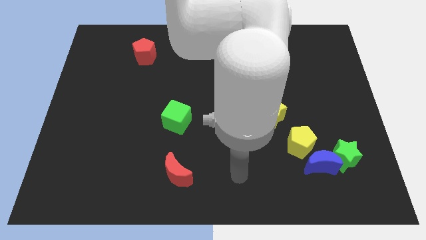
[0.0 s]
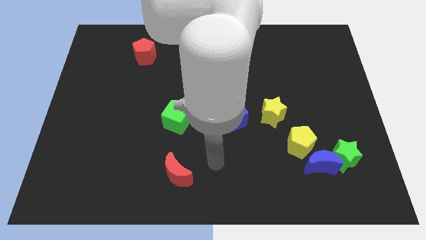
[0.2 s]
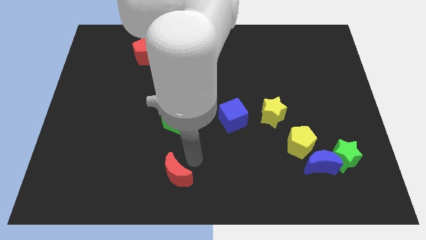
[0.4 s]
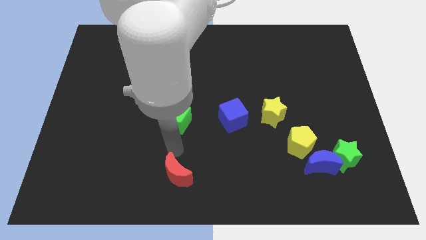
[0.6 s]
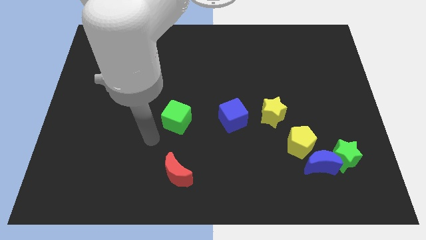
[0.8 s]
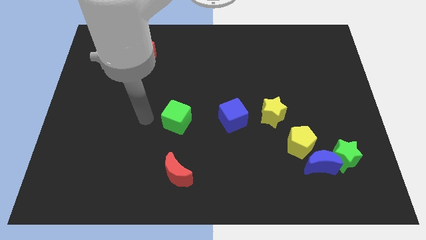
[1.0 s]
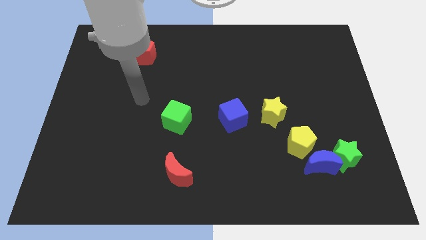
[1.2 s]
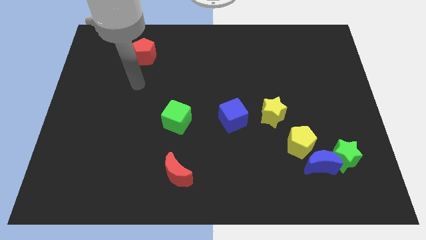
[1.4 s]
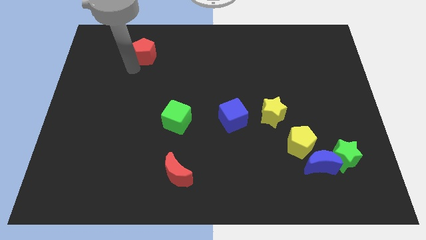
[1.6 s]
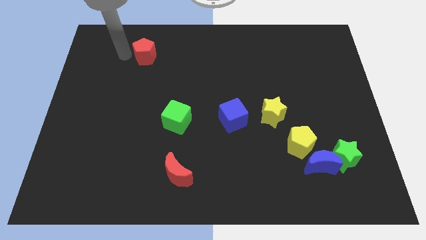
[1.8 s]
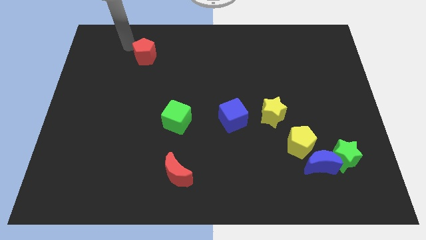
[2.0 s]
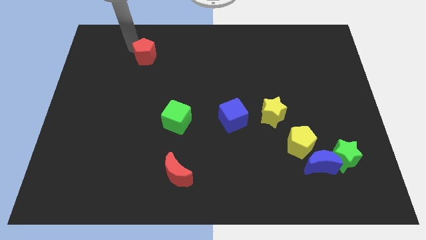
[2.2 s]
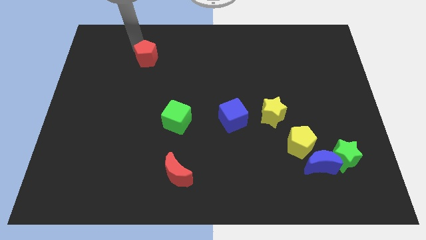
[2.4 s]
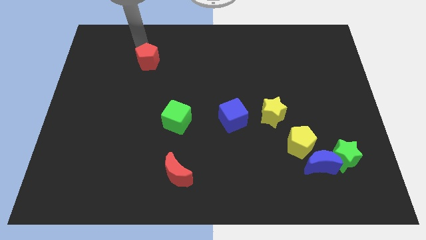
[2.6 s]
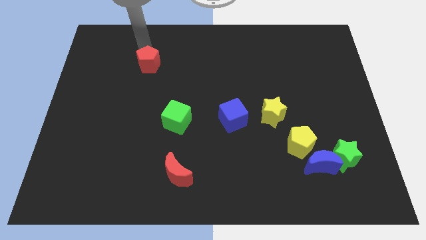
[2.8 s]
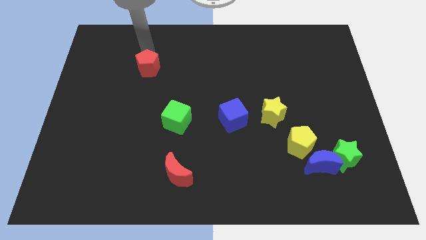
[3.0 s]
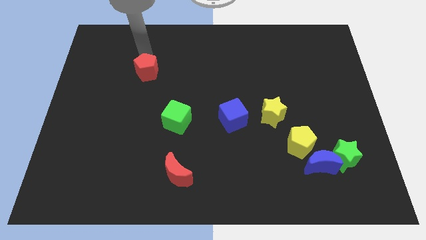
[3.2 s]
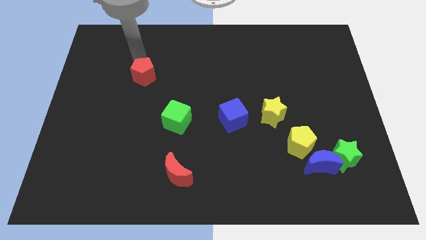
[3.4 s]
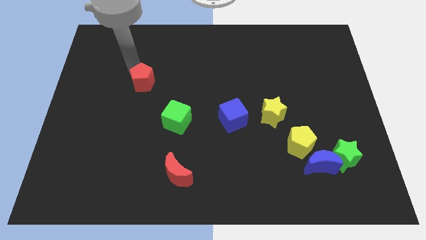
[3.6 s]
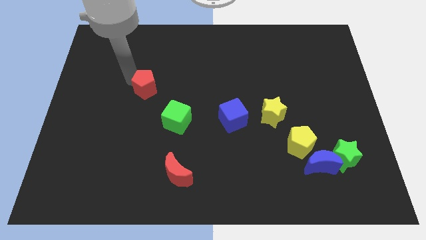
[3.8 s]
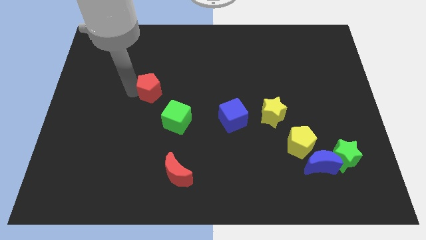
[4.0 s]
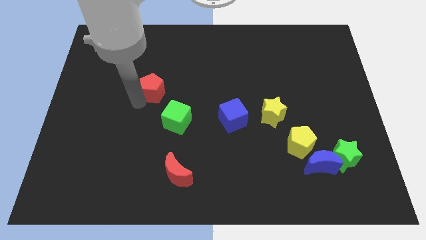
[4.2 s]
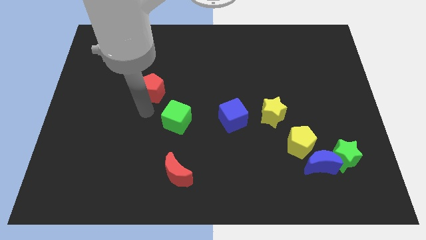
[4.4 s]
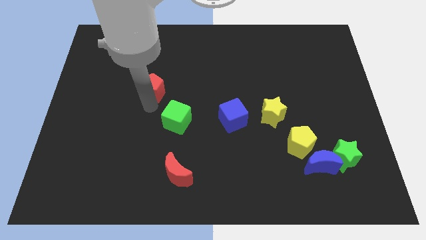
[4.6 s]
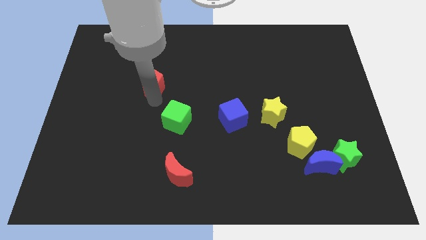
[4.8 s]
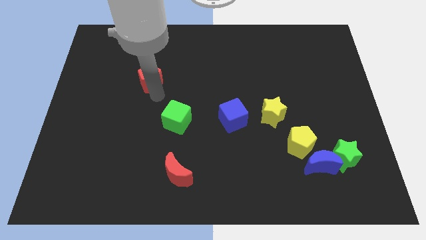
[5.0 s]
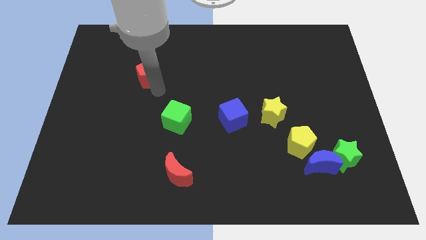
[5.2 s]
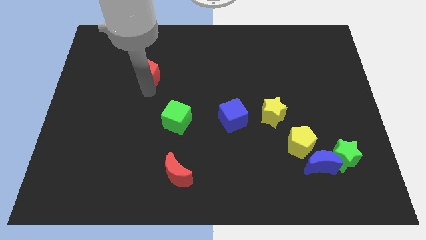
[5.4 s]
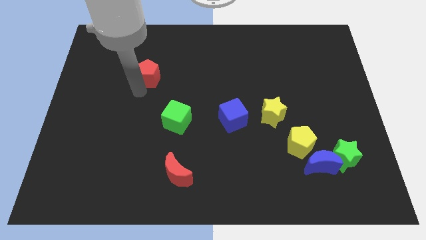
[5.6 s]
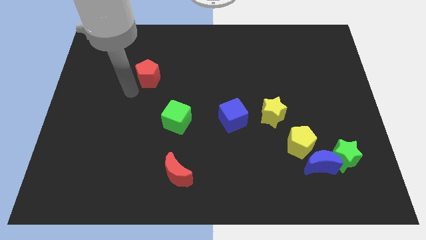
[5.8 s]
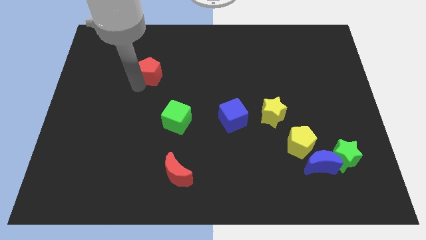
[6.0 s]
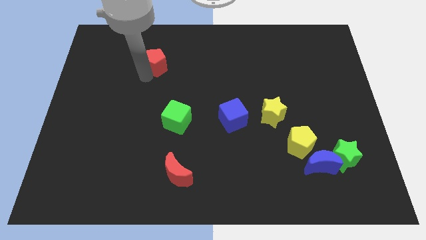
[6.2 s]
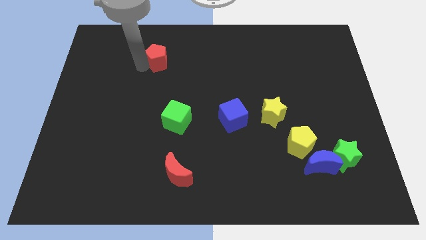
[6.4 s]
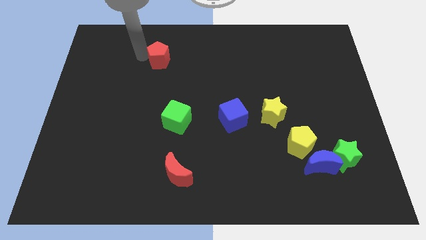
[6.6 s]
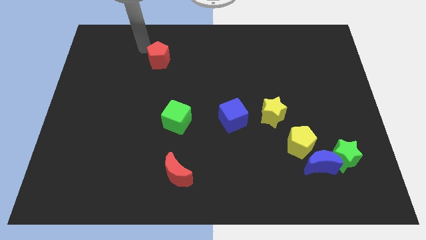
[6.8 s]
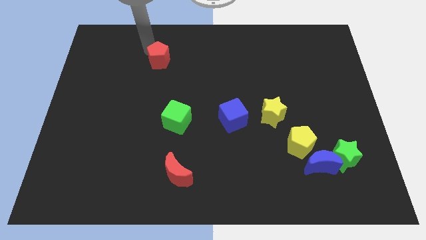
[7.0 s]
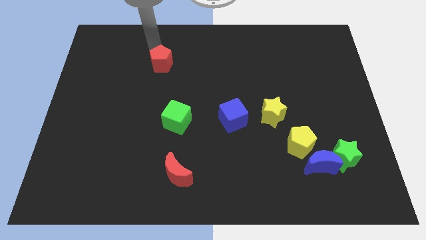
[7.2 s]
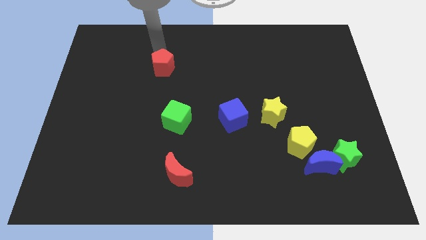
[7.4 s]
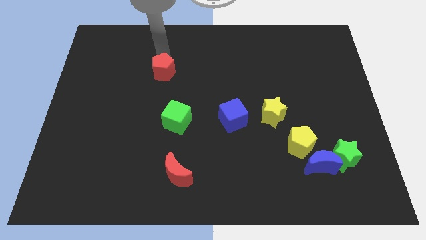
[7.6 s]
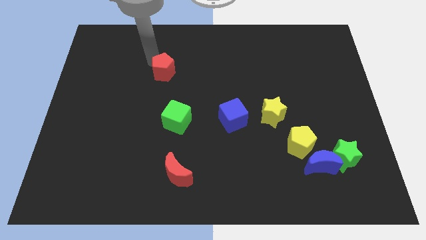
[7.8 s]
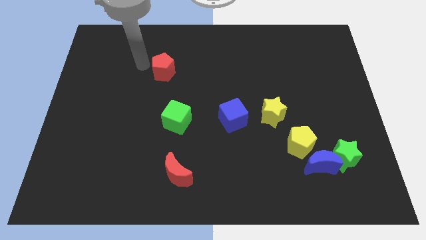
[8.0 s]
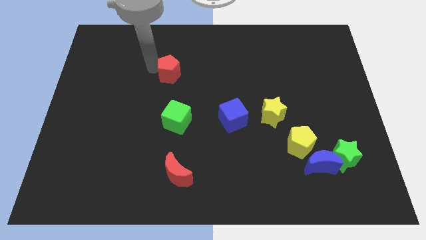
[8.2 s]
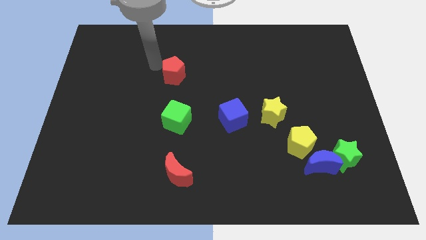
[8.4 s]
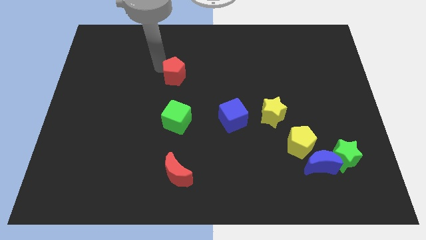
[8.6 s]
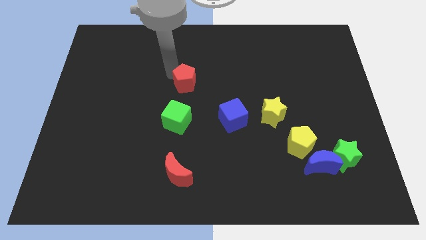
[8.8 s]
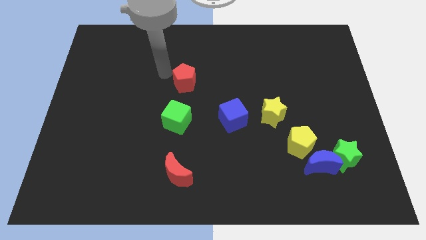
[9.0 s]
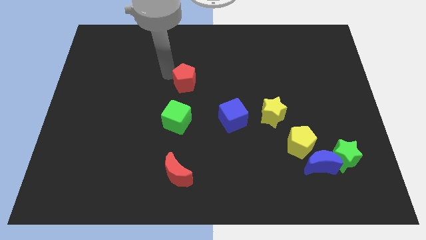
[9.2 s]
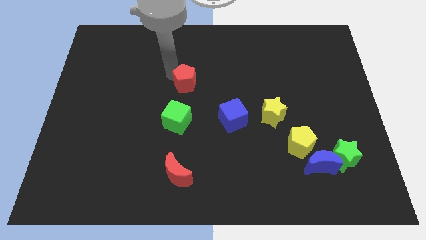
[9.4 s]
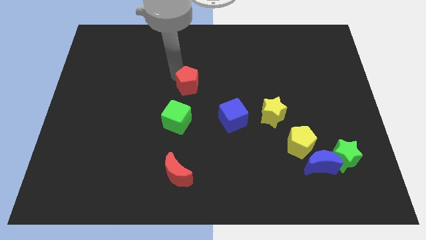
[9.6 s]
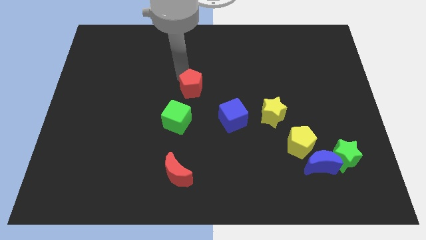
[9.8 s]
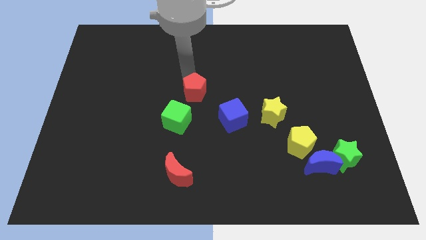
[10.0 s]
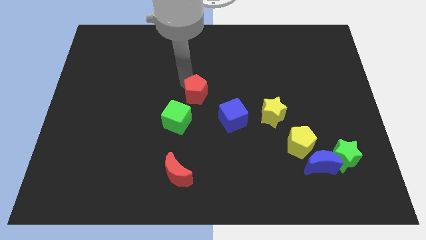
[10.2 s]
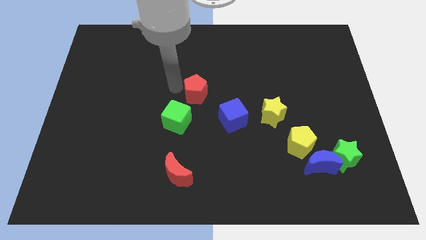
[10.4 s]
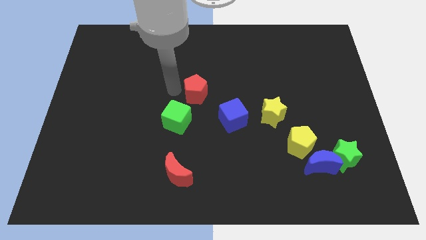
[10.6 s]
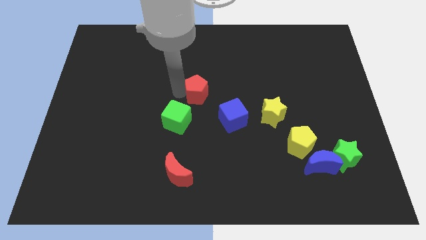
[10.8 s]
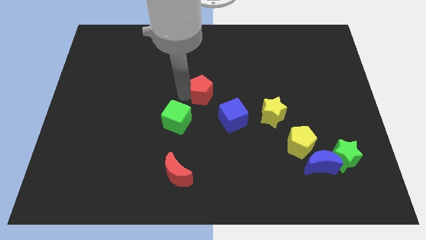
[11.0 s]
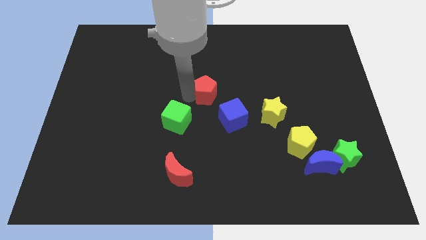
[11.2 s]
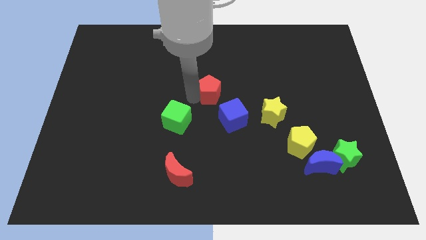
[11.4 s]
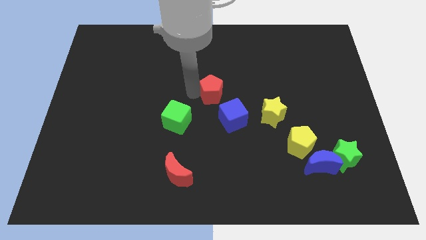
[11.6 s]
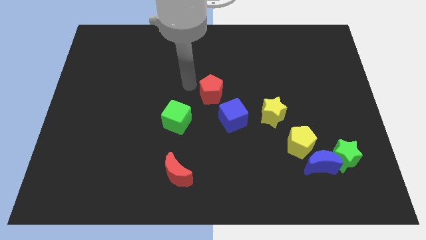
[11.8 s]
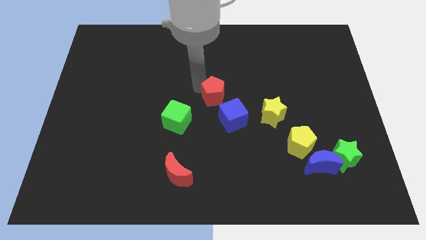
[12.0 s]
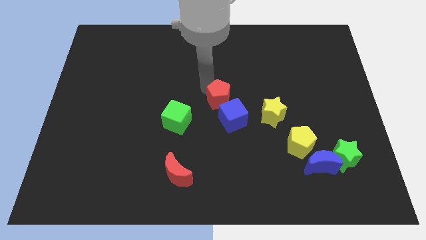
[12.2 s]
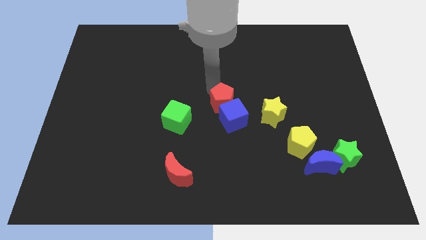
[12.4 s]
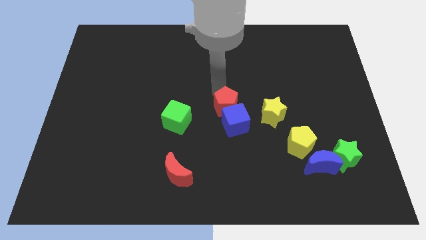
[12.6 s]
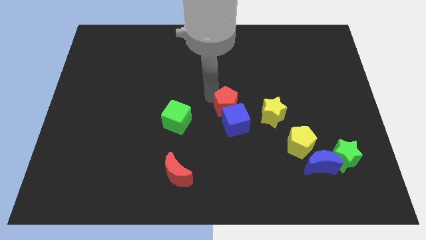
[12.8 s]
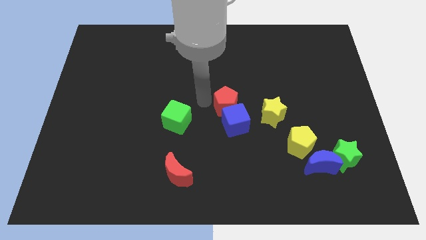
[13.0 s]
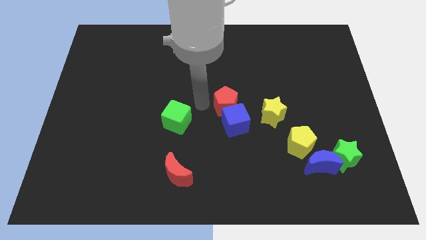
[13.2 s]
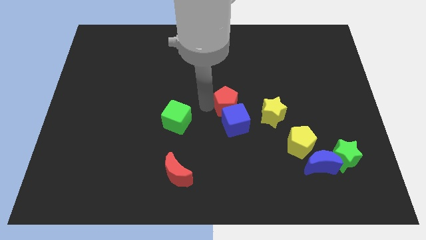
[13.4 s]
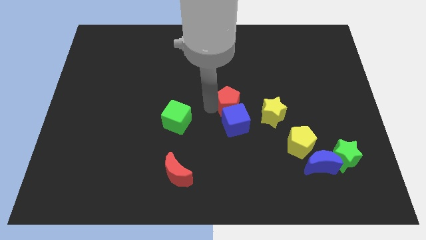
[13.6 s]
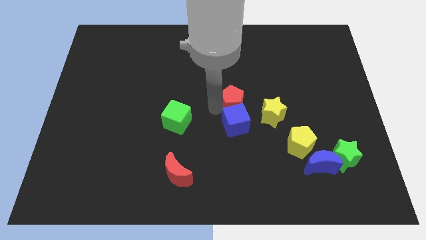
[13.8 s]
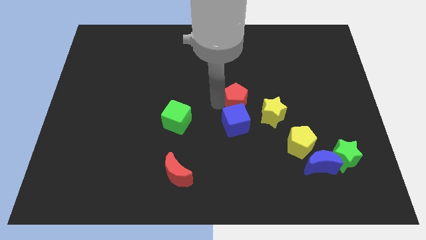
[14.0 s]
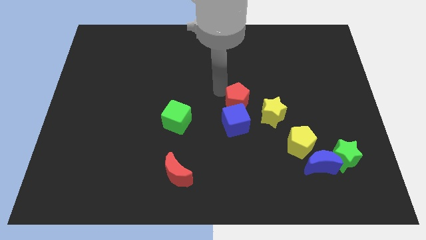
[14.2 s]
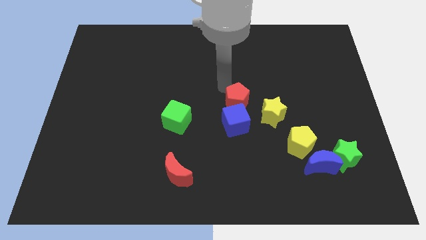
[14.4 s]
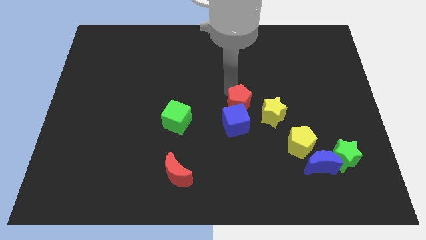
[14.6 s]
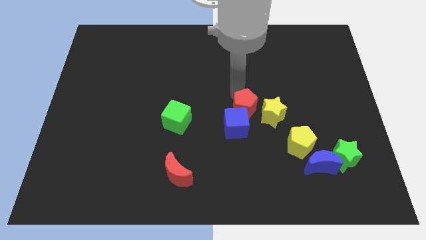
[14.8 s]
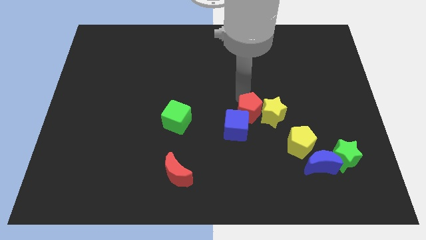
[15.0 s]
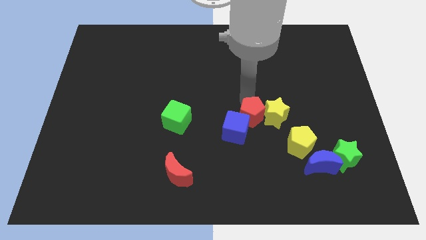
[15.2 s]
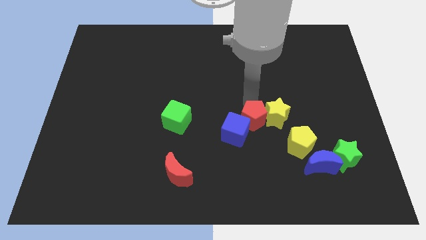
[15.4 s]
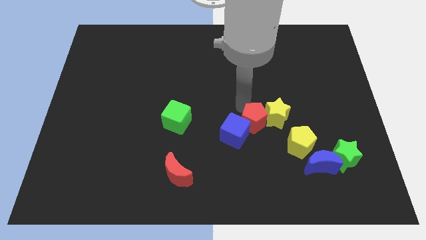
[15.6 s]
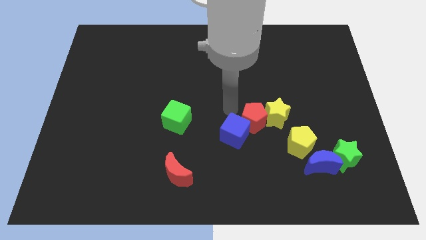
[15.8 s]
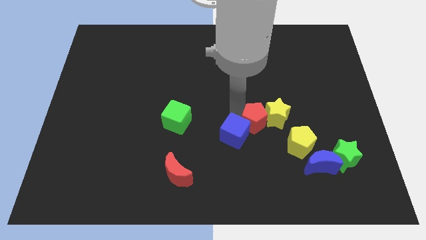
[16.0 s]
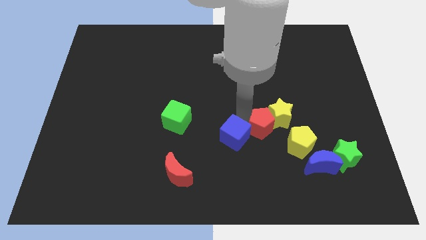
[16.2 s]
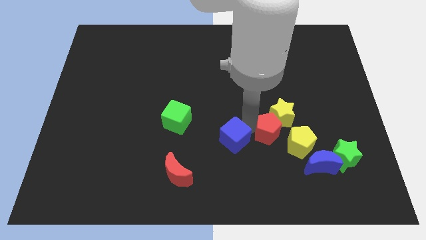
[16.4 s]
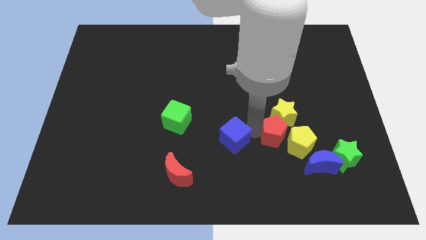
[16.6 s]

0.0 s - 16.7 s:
slide the red pentagon close to the yellow pentagon
